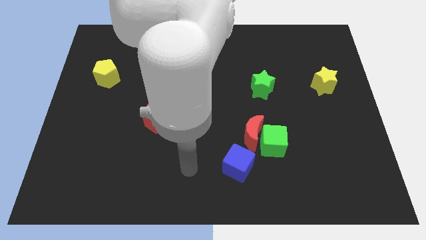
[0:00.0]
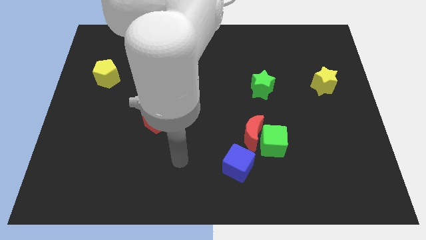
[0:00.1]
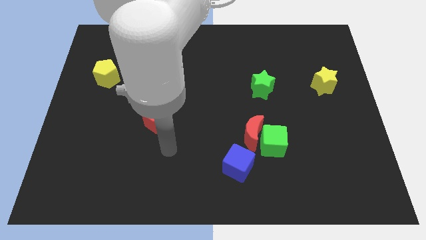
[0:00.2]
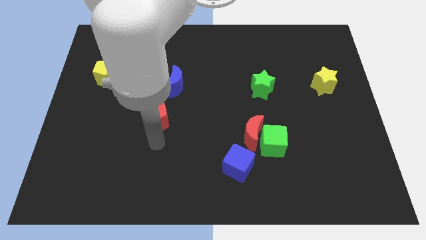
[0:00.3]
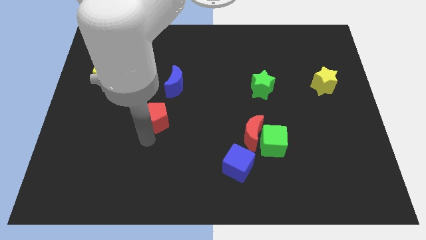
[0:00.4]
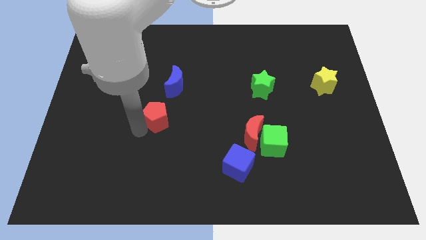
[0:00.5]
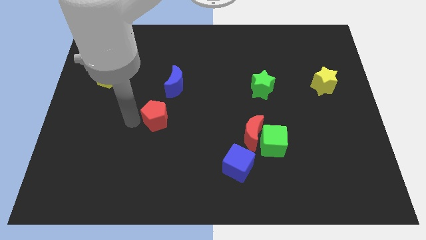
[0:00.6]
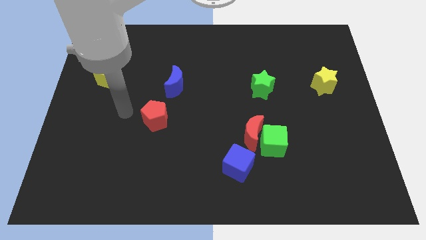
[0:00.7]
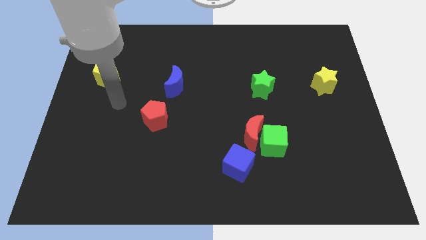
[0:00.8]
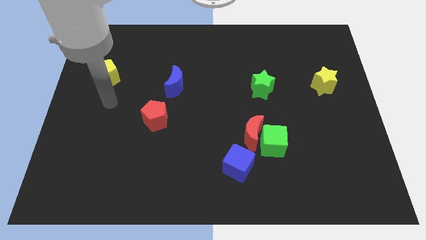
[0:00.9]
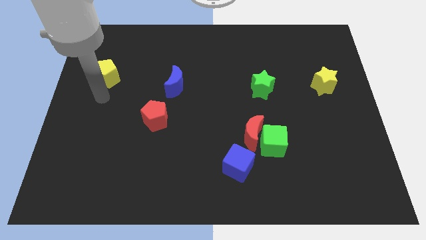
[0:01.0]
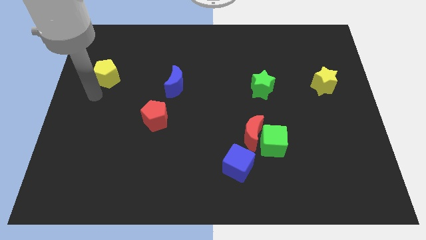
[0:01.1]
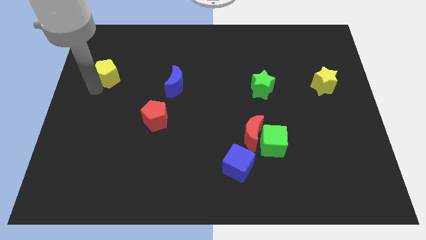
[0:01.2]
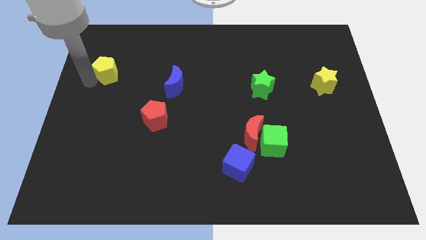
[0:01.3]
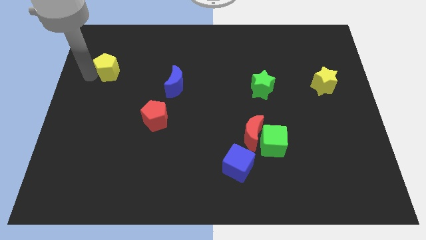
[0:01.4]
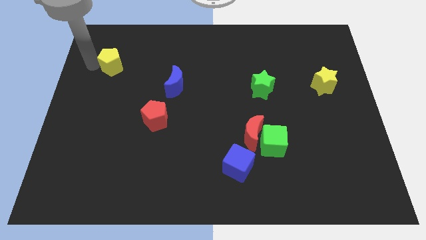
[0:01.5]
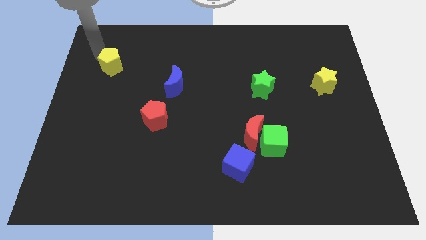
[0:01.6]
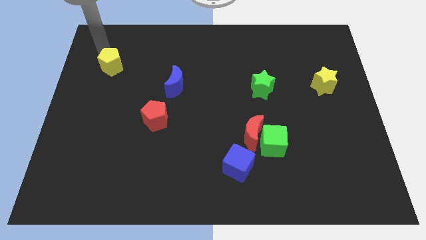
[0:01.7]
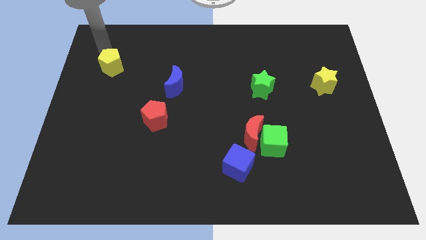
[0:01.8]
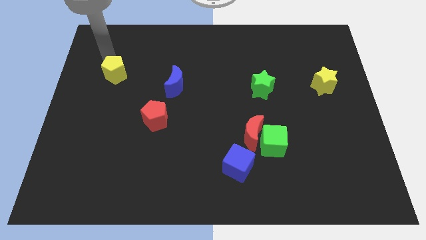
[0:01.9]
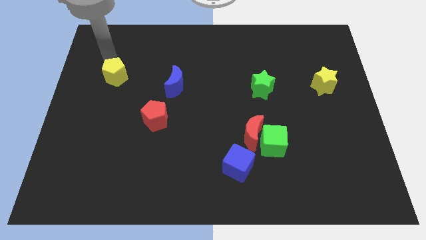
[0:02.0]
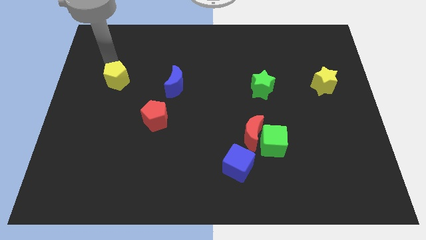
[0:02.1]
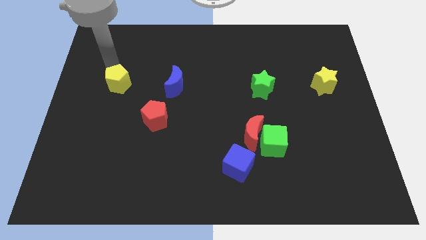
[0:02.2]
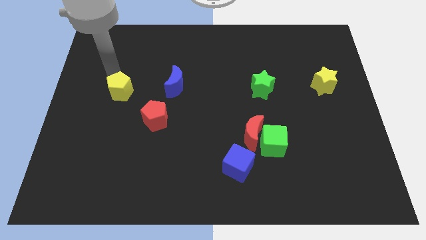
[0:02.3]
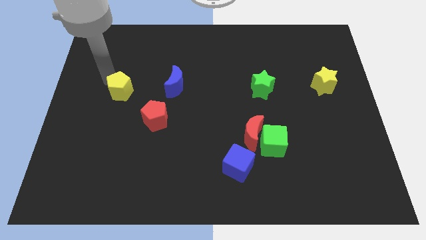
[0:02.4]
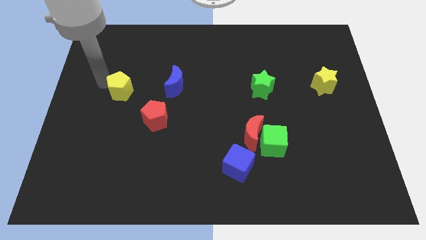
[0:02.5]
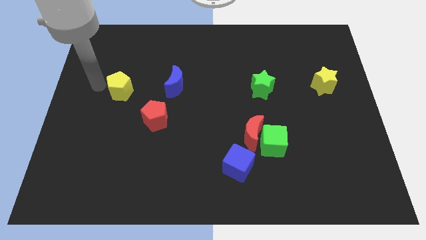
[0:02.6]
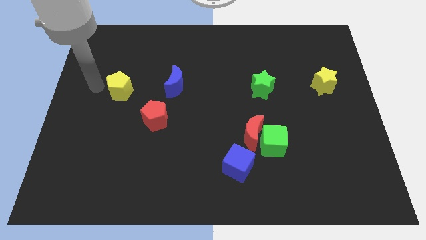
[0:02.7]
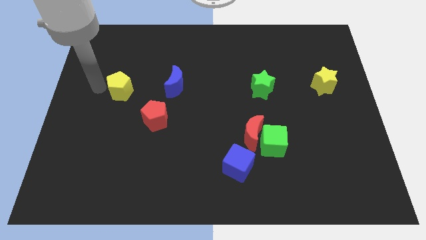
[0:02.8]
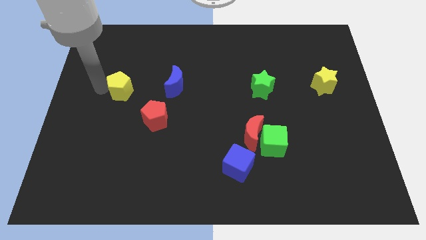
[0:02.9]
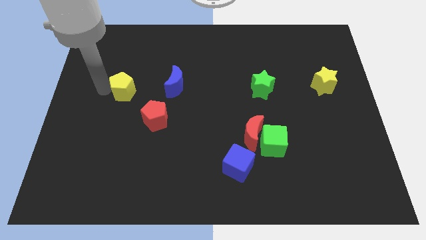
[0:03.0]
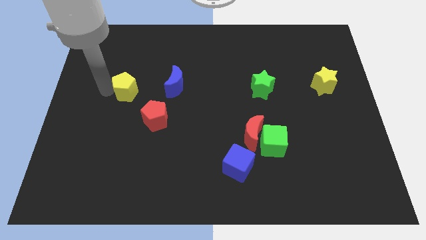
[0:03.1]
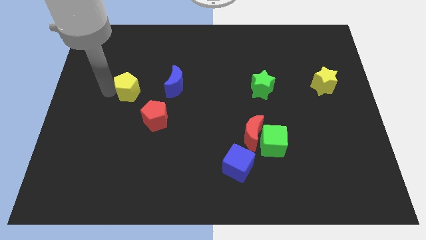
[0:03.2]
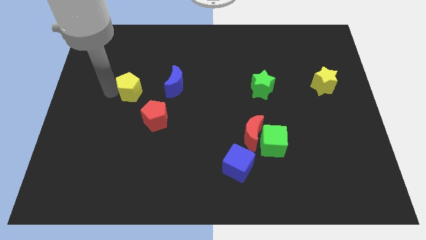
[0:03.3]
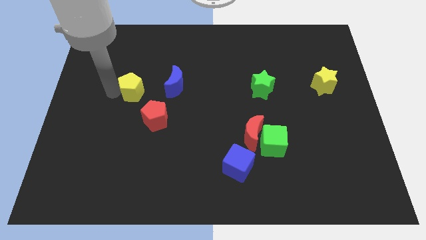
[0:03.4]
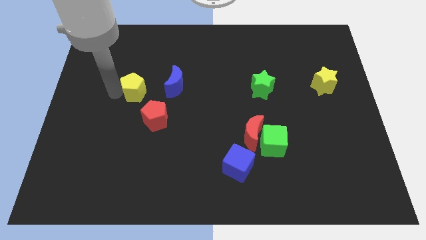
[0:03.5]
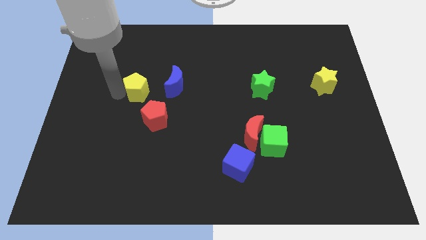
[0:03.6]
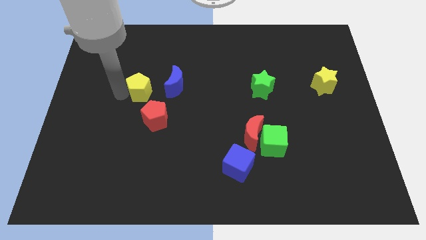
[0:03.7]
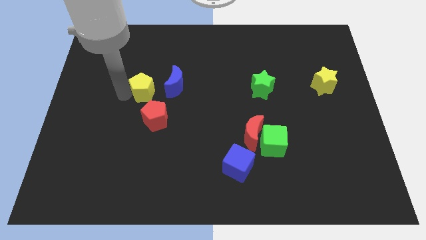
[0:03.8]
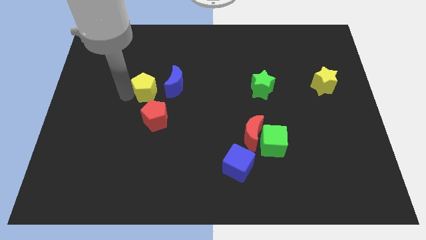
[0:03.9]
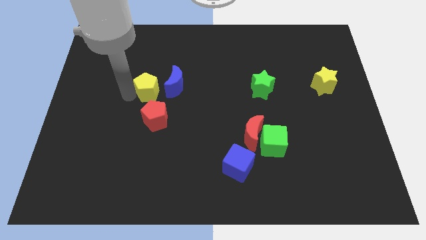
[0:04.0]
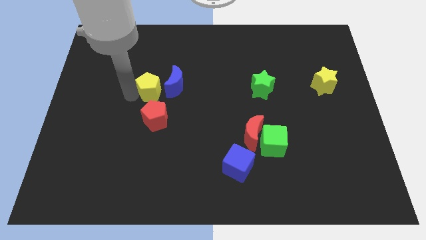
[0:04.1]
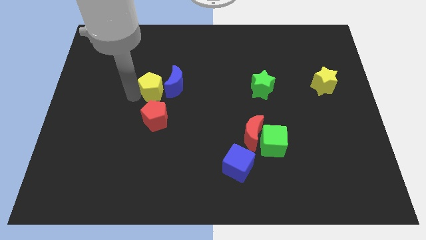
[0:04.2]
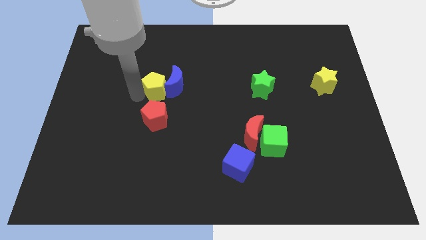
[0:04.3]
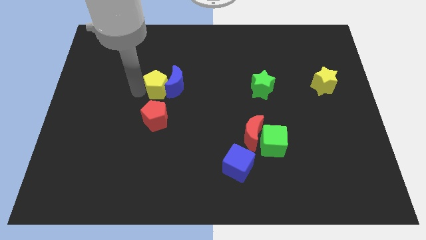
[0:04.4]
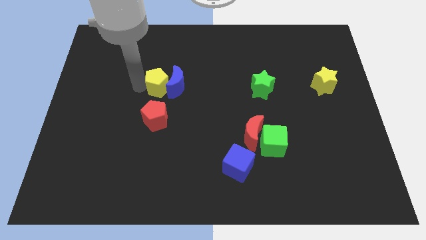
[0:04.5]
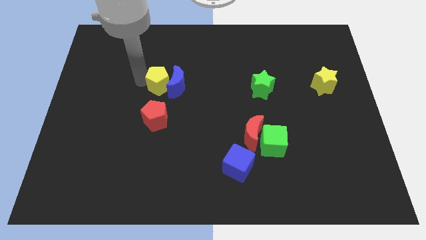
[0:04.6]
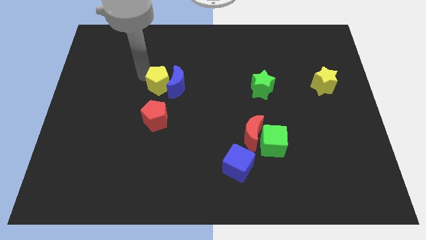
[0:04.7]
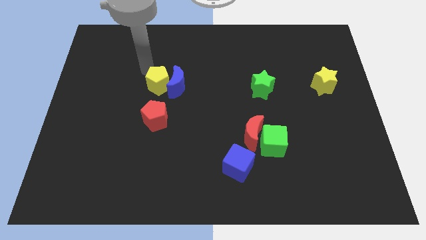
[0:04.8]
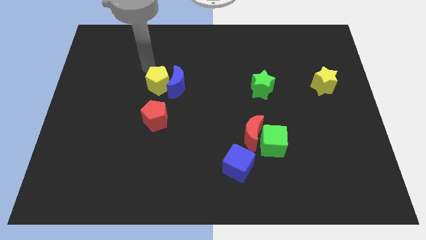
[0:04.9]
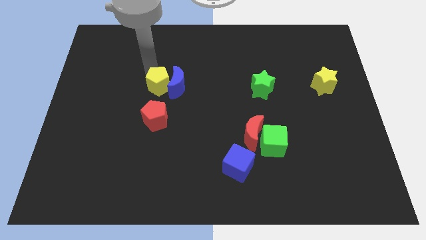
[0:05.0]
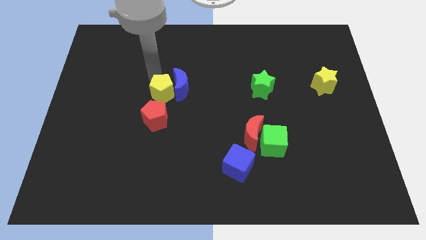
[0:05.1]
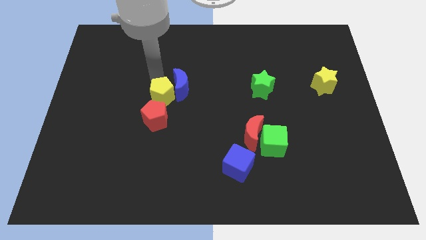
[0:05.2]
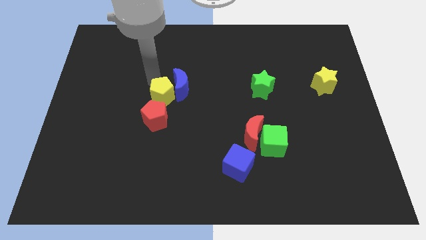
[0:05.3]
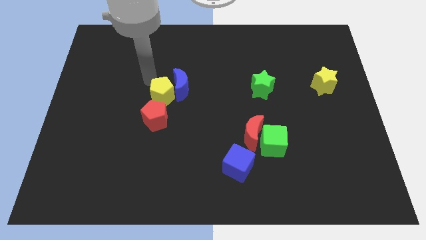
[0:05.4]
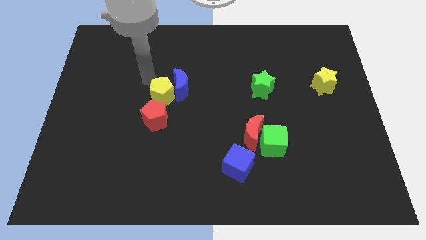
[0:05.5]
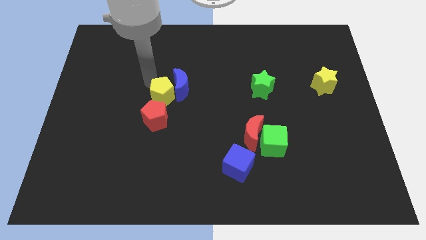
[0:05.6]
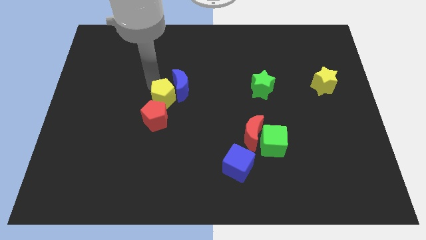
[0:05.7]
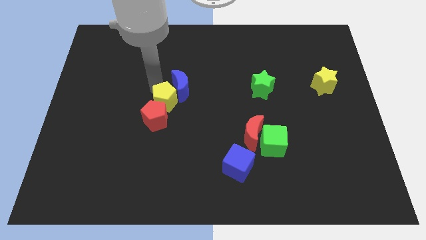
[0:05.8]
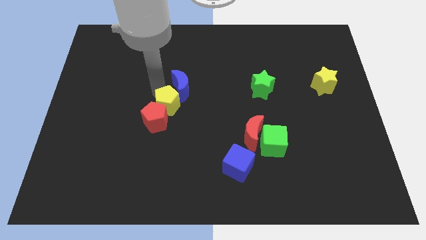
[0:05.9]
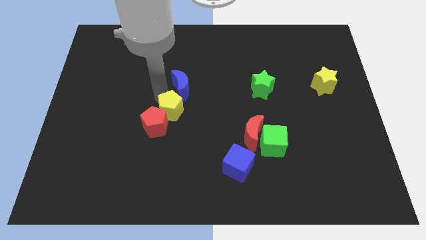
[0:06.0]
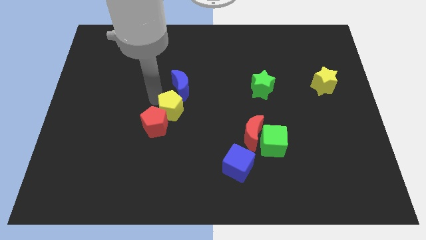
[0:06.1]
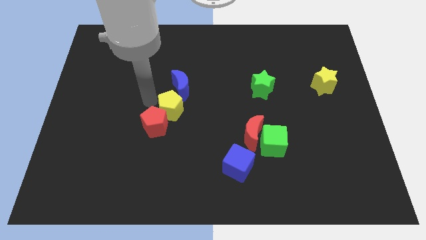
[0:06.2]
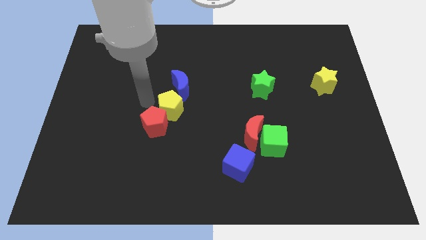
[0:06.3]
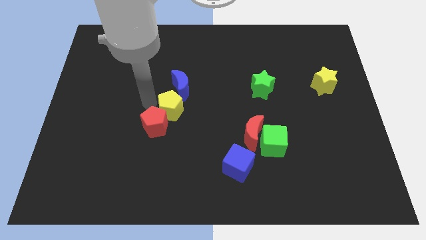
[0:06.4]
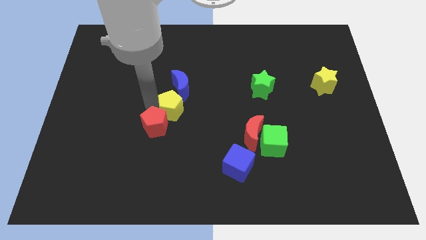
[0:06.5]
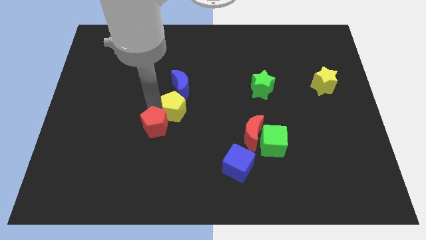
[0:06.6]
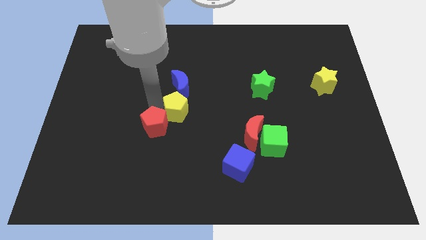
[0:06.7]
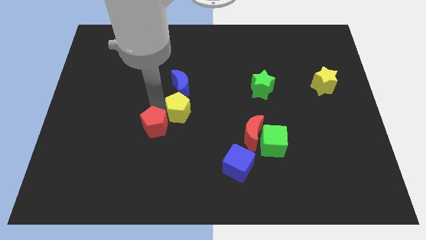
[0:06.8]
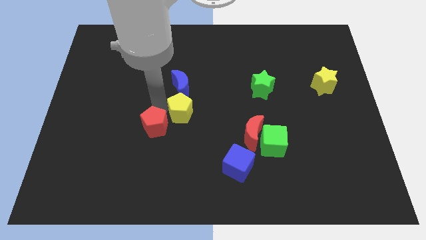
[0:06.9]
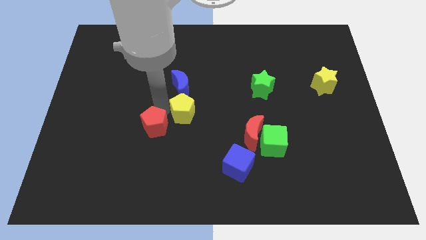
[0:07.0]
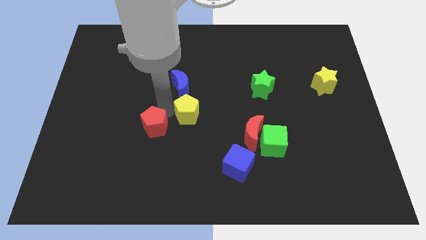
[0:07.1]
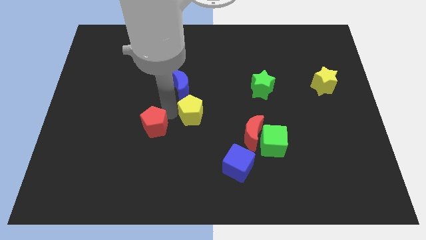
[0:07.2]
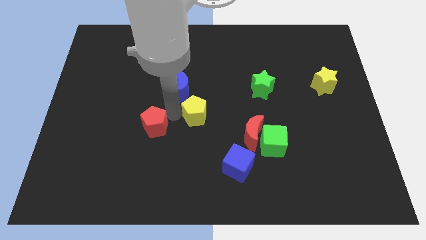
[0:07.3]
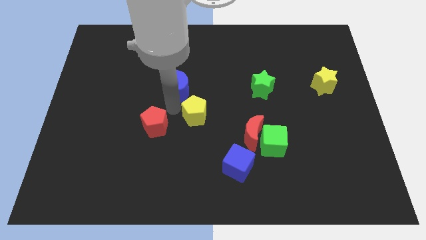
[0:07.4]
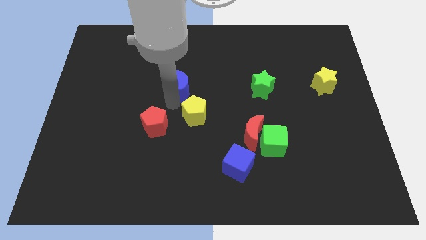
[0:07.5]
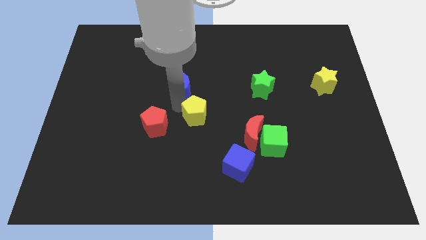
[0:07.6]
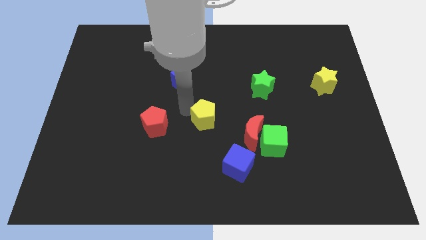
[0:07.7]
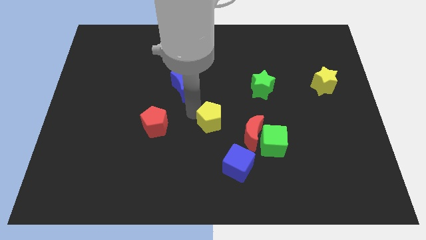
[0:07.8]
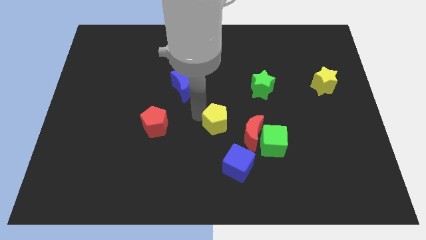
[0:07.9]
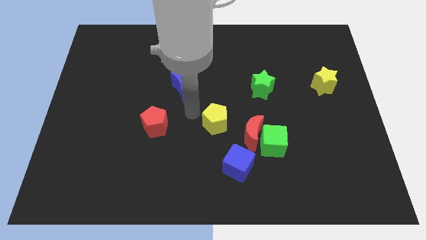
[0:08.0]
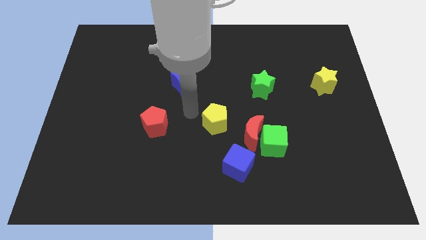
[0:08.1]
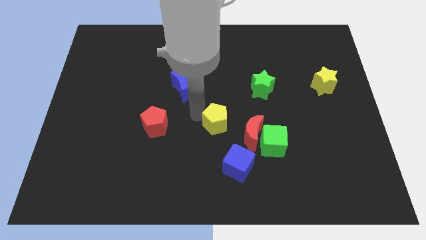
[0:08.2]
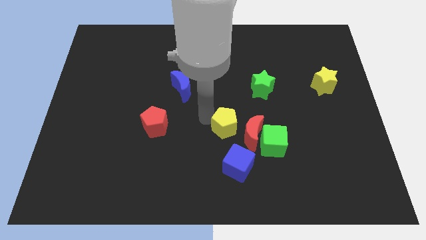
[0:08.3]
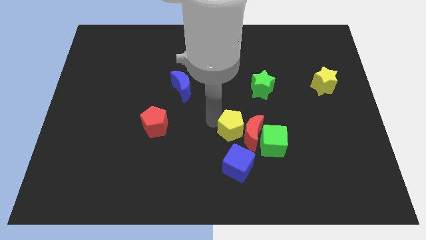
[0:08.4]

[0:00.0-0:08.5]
slide the yellow pentagon next to the red moon
